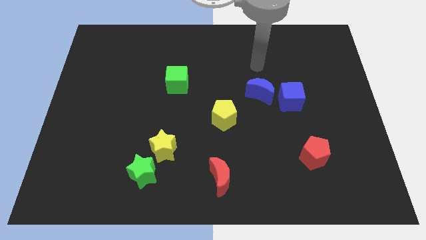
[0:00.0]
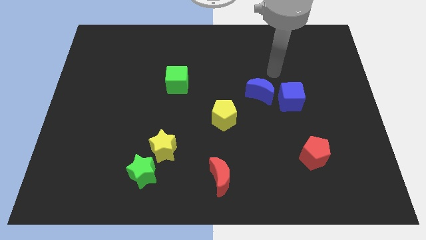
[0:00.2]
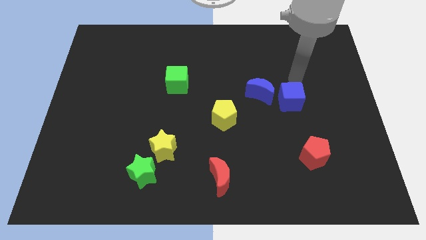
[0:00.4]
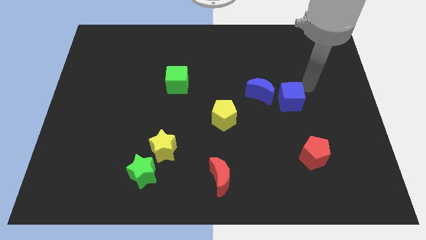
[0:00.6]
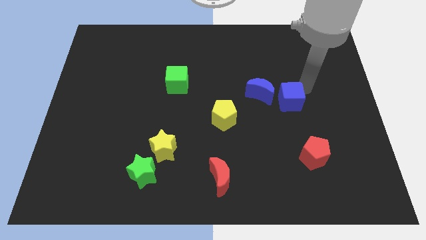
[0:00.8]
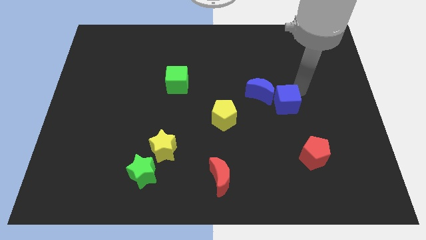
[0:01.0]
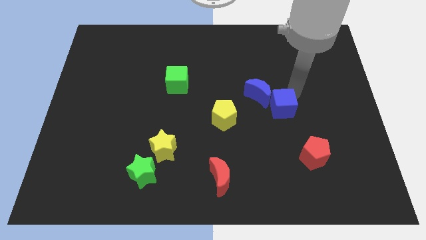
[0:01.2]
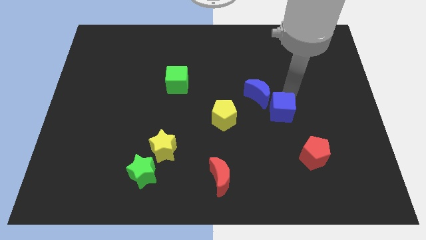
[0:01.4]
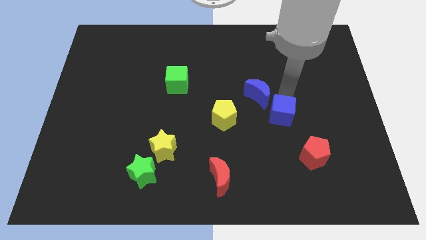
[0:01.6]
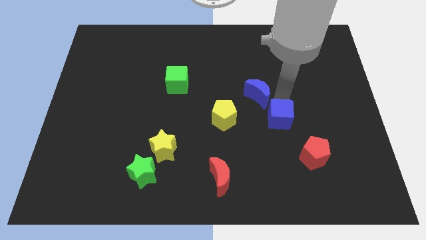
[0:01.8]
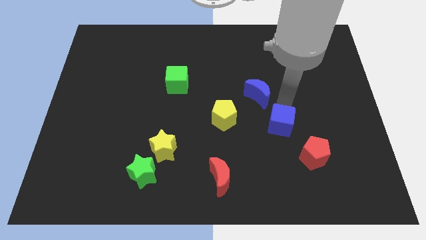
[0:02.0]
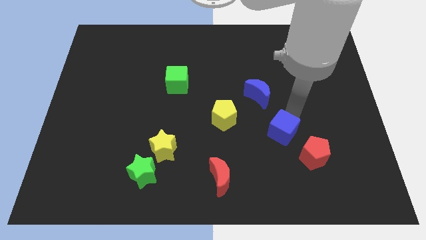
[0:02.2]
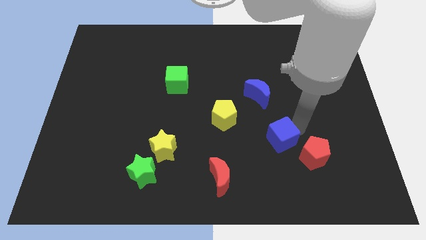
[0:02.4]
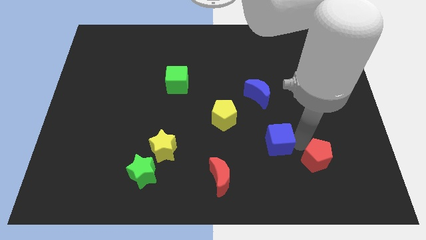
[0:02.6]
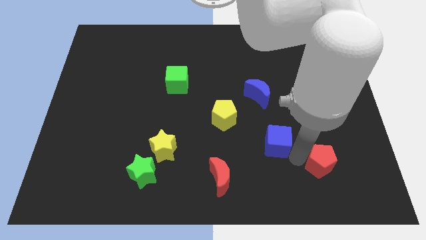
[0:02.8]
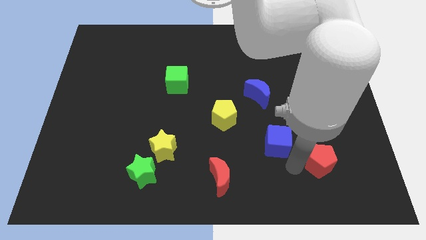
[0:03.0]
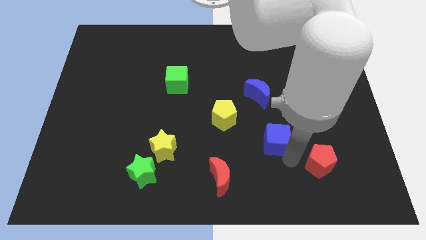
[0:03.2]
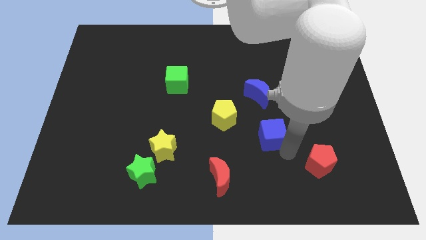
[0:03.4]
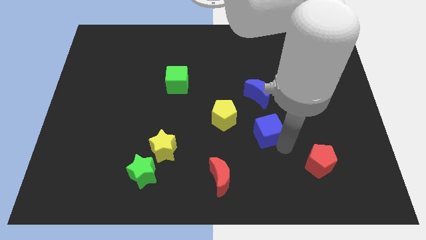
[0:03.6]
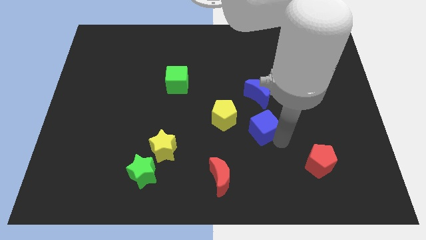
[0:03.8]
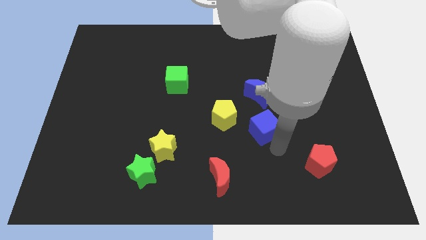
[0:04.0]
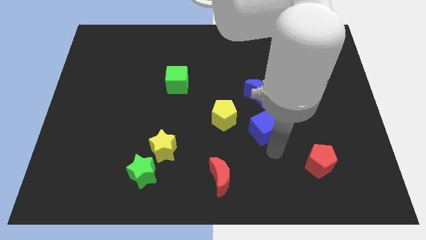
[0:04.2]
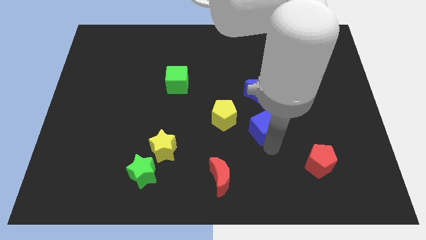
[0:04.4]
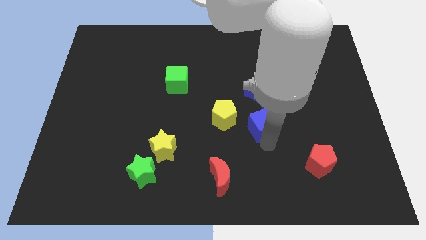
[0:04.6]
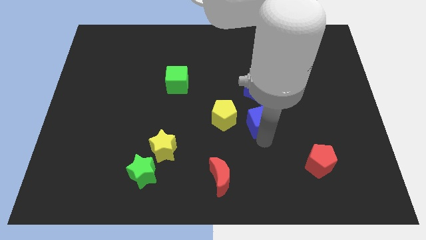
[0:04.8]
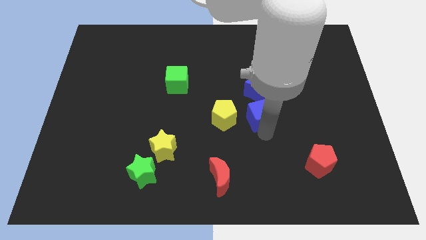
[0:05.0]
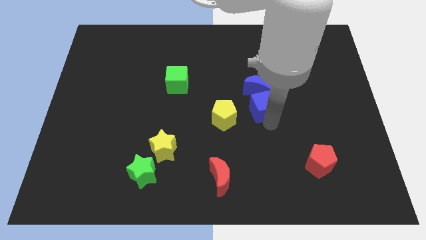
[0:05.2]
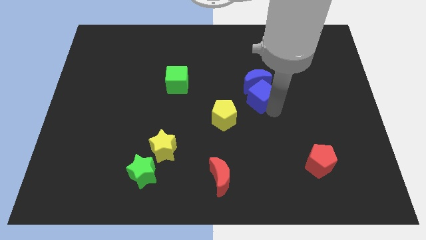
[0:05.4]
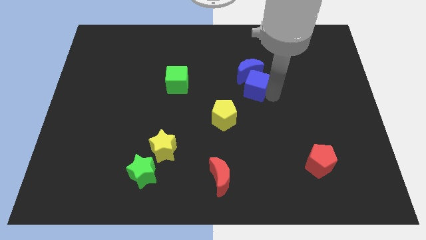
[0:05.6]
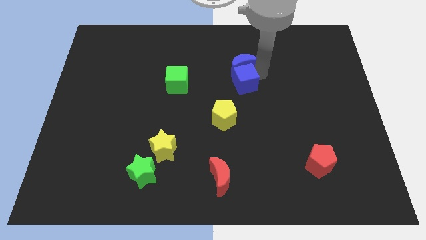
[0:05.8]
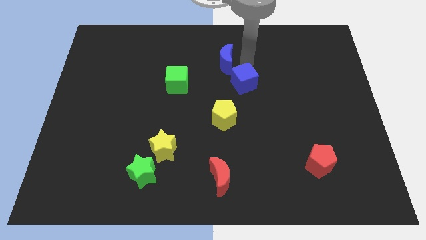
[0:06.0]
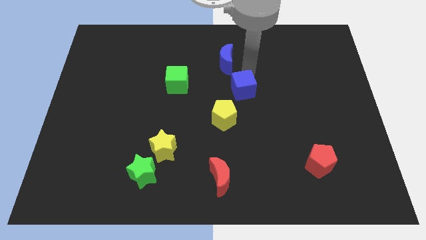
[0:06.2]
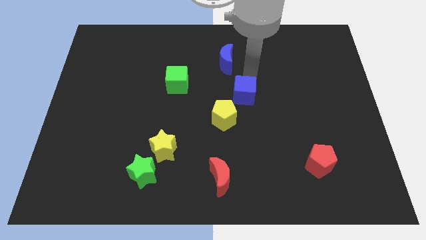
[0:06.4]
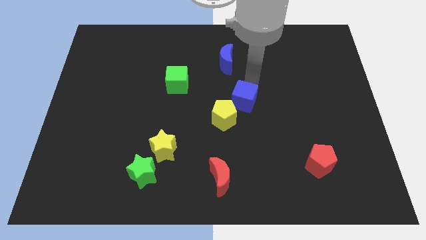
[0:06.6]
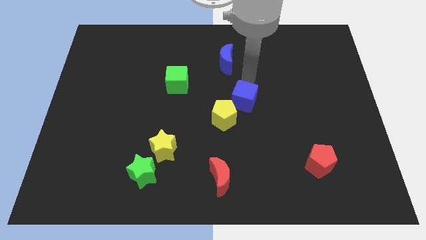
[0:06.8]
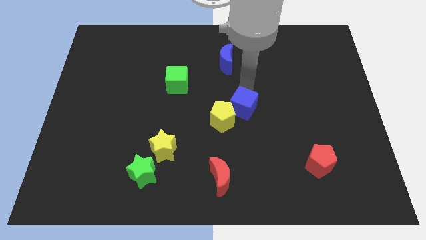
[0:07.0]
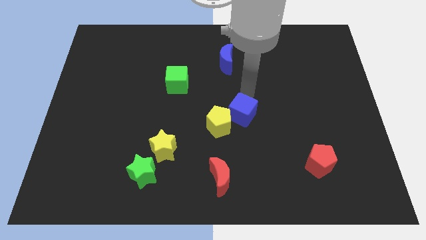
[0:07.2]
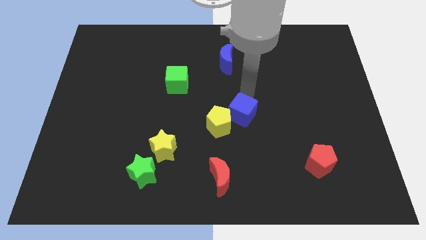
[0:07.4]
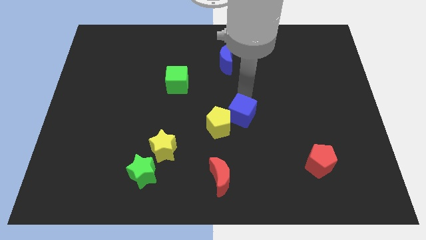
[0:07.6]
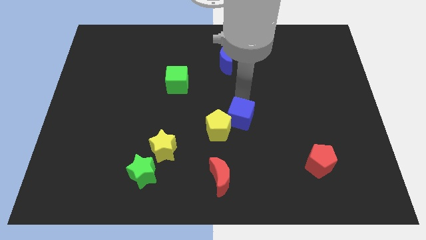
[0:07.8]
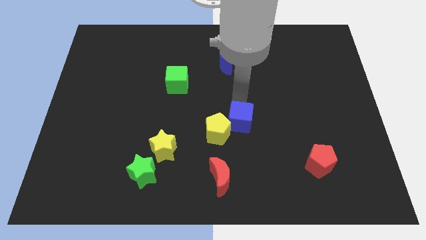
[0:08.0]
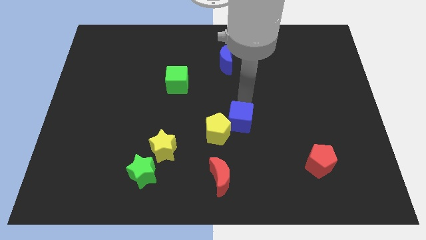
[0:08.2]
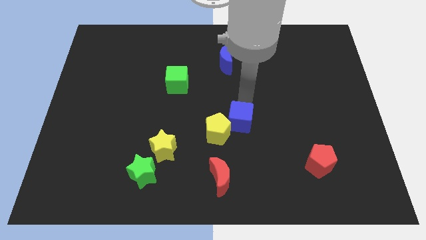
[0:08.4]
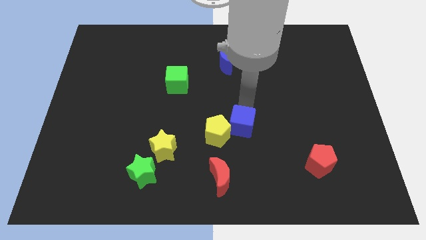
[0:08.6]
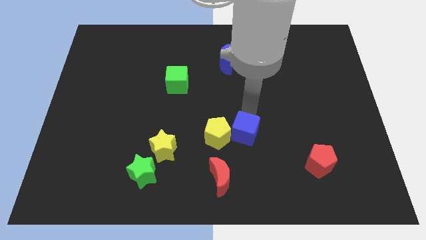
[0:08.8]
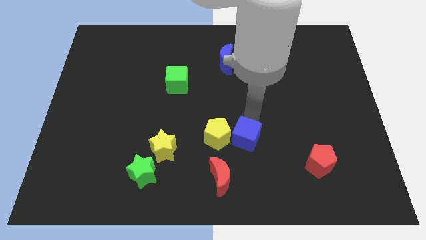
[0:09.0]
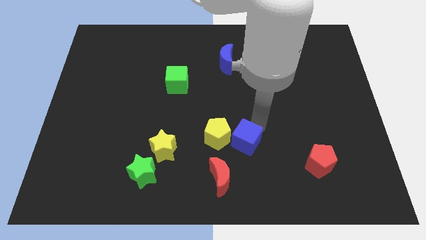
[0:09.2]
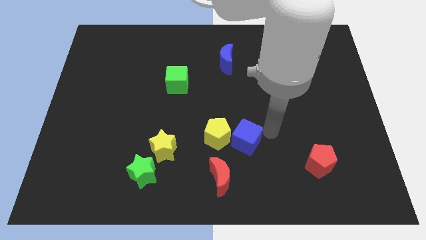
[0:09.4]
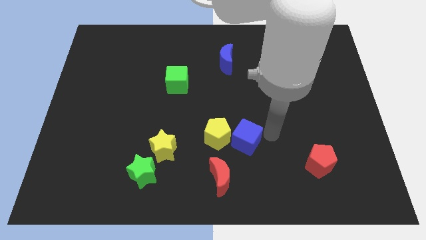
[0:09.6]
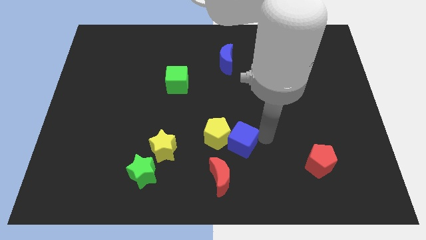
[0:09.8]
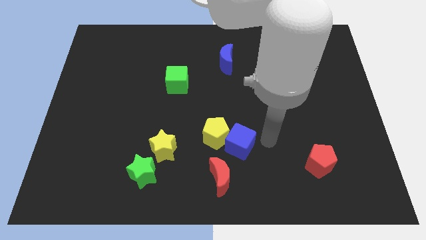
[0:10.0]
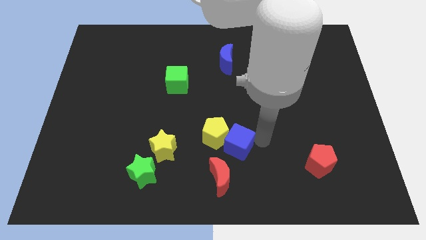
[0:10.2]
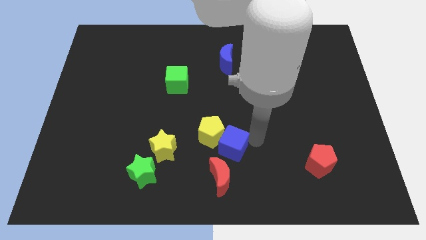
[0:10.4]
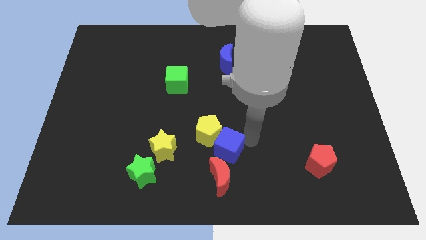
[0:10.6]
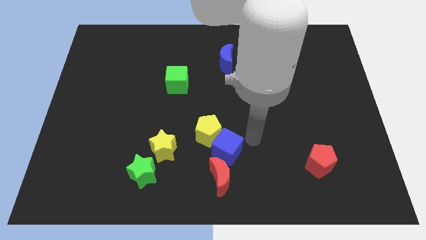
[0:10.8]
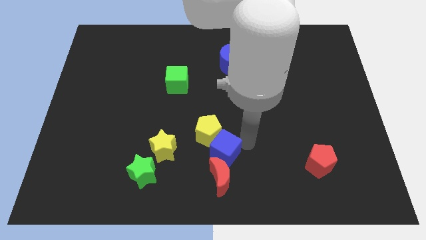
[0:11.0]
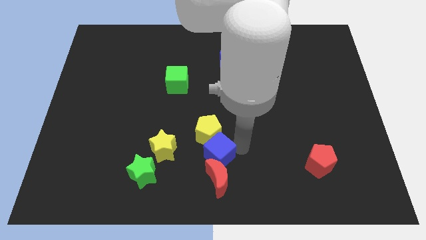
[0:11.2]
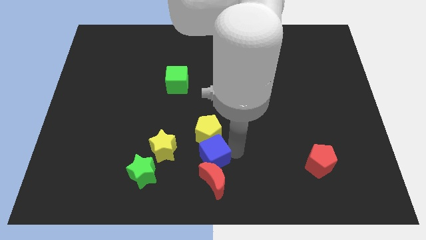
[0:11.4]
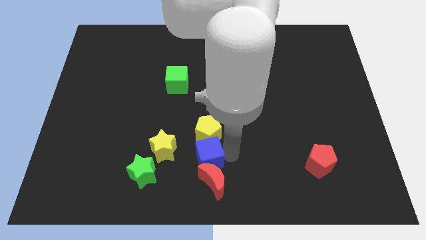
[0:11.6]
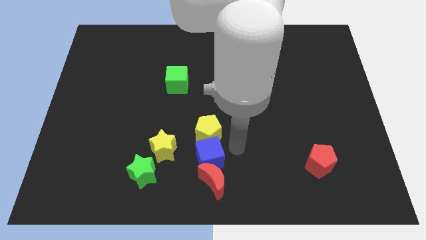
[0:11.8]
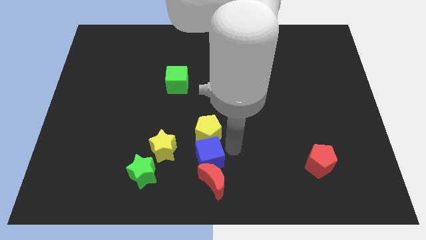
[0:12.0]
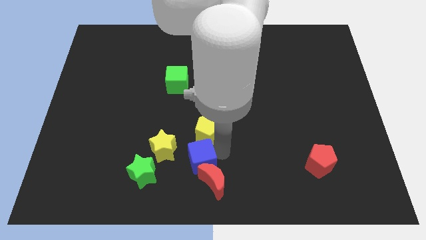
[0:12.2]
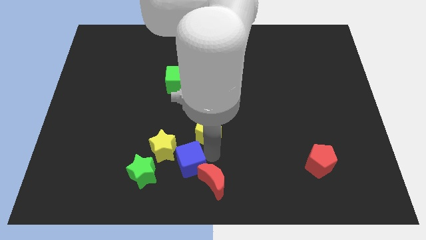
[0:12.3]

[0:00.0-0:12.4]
slide the blue cube left of the red moon

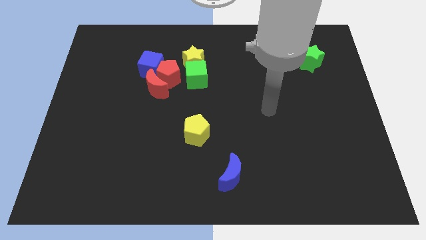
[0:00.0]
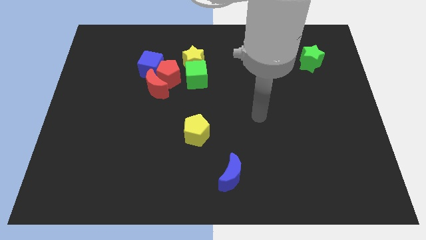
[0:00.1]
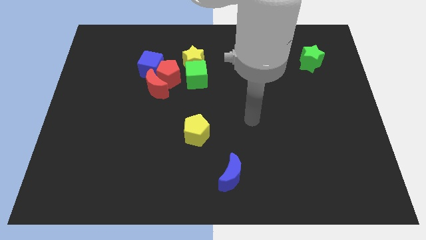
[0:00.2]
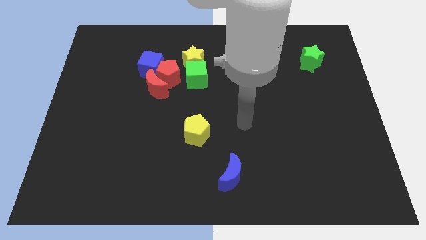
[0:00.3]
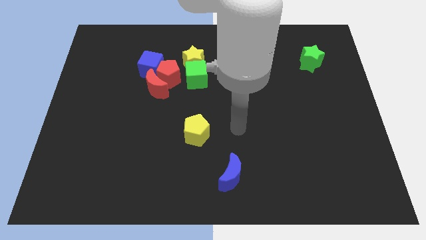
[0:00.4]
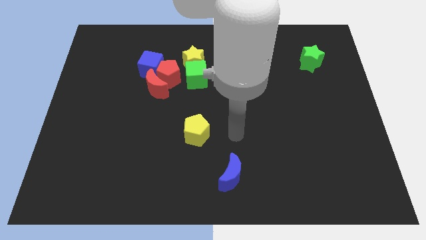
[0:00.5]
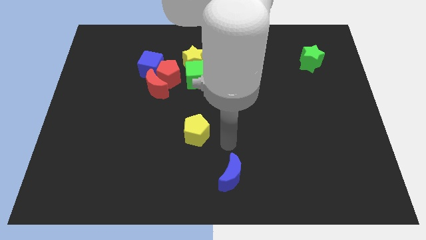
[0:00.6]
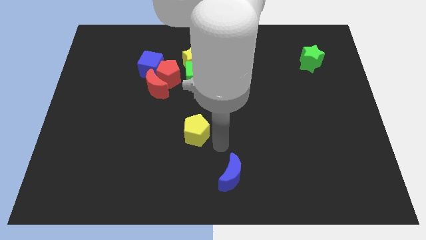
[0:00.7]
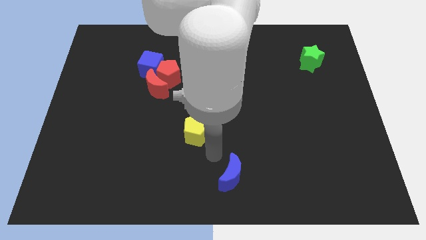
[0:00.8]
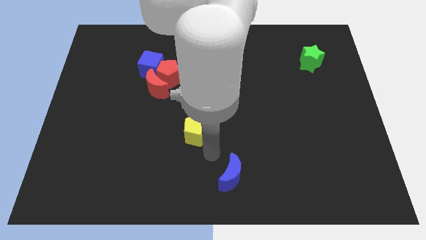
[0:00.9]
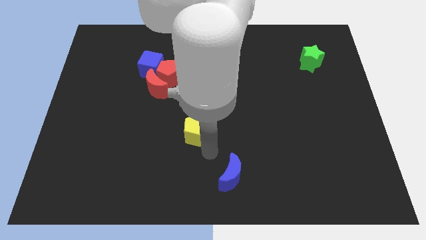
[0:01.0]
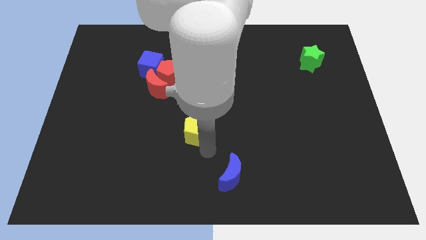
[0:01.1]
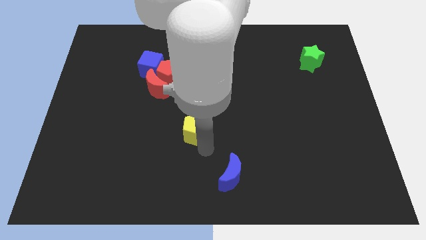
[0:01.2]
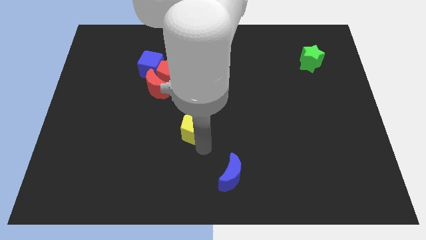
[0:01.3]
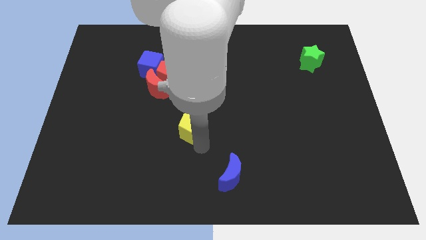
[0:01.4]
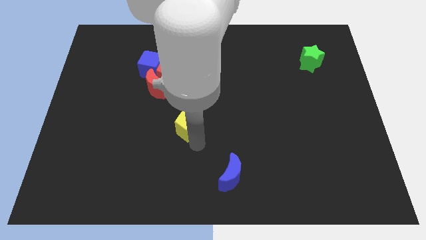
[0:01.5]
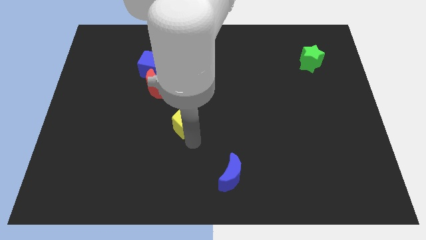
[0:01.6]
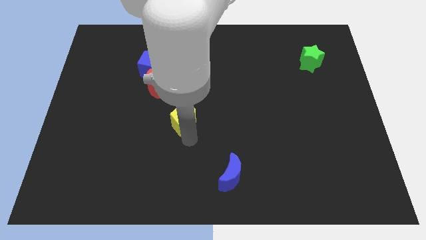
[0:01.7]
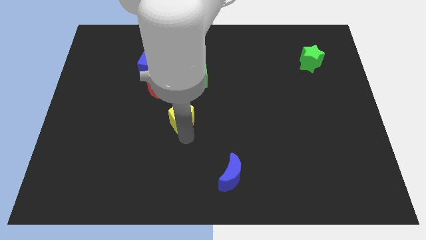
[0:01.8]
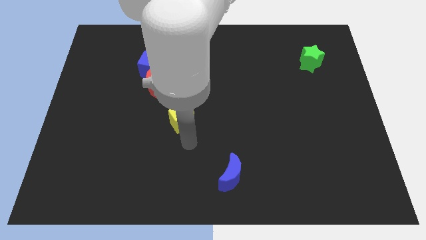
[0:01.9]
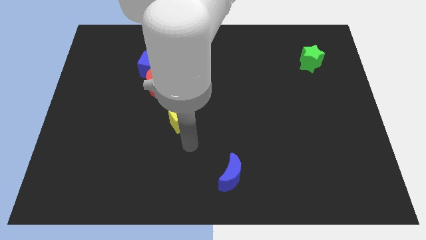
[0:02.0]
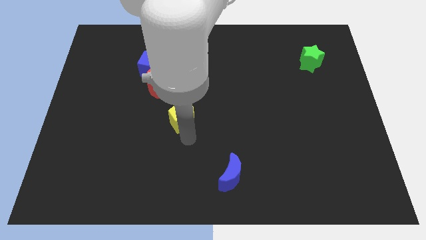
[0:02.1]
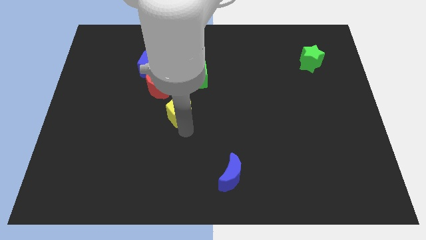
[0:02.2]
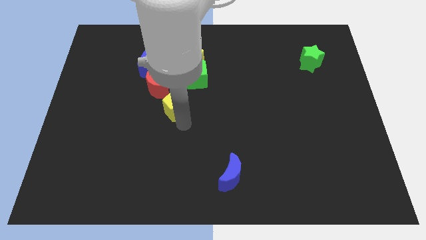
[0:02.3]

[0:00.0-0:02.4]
push the yellow pentagon diagonally down and to the left of the green cube
